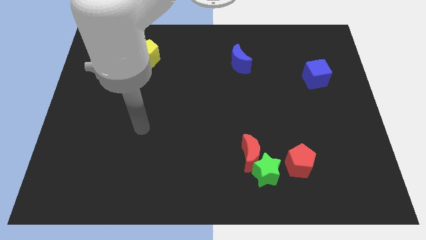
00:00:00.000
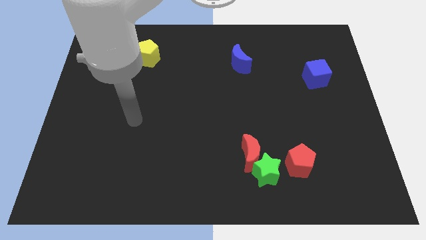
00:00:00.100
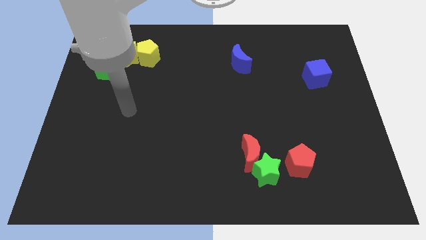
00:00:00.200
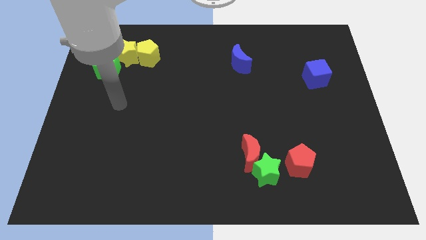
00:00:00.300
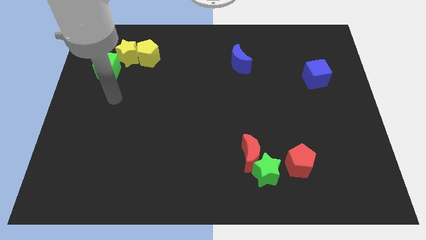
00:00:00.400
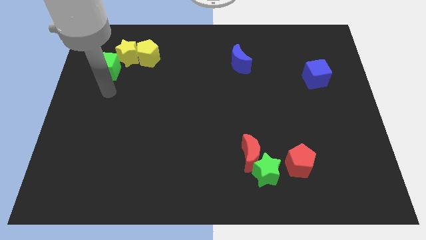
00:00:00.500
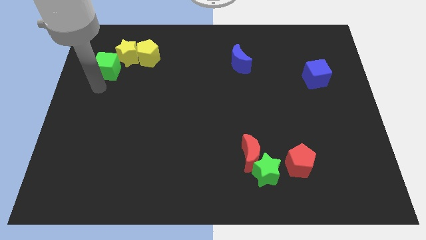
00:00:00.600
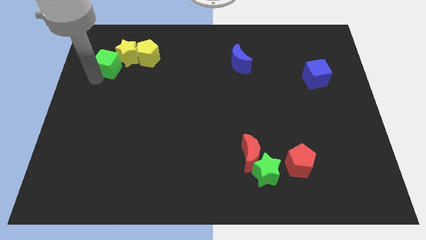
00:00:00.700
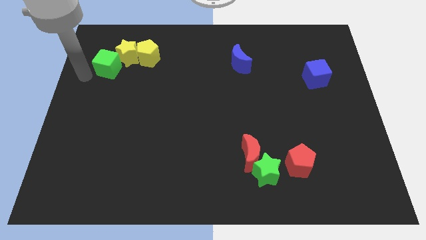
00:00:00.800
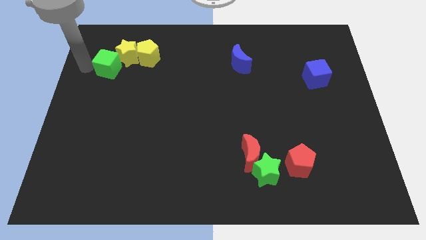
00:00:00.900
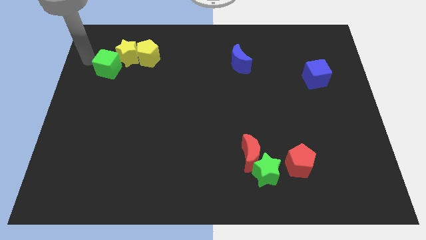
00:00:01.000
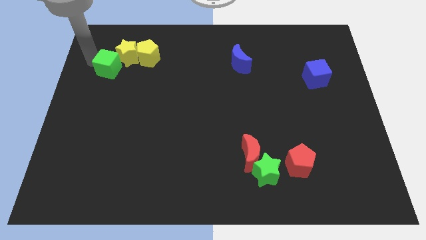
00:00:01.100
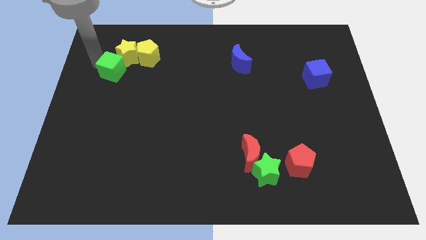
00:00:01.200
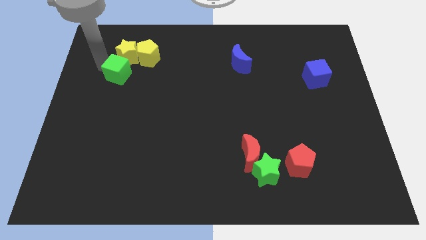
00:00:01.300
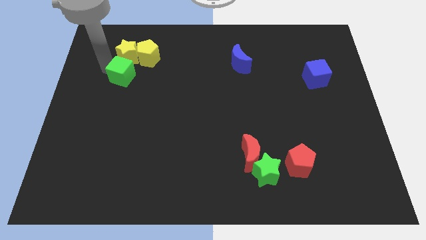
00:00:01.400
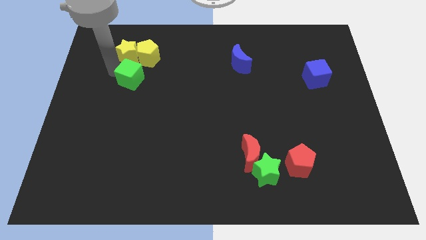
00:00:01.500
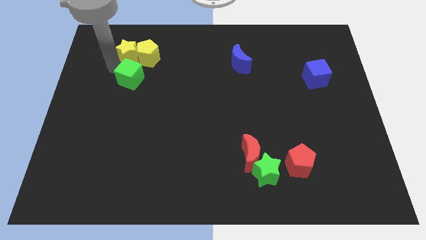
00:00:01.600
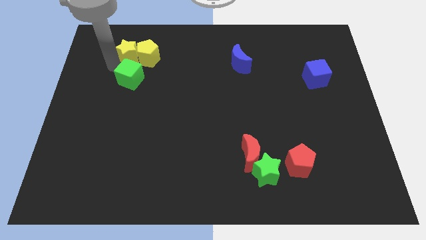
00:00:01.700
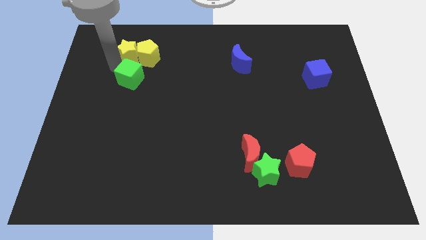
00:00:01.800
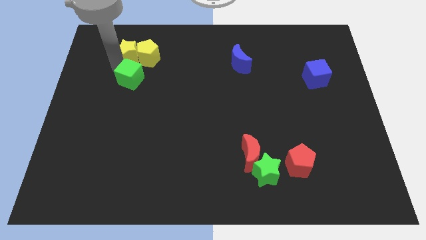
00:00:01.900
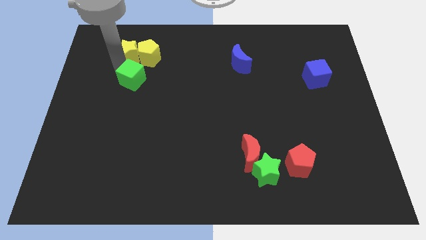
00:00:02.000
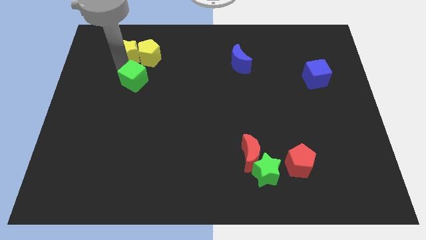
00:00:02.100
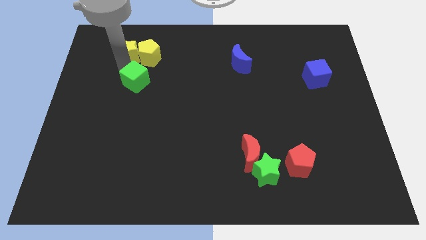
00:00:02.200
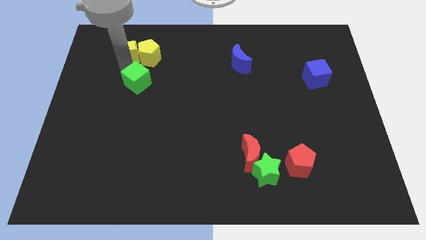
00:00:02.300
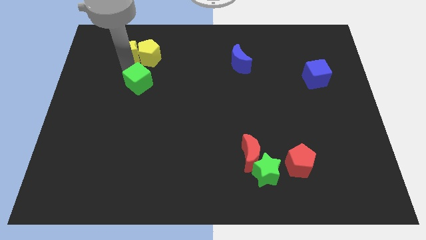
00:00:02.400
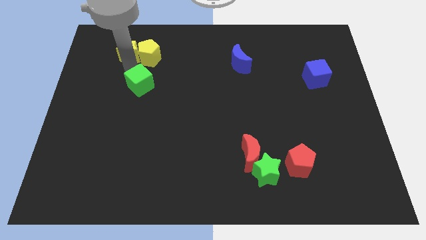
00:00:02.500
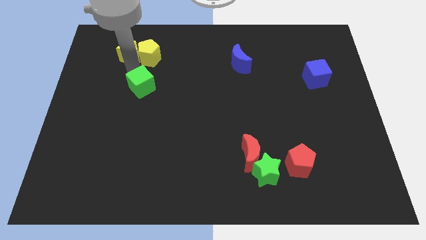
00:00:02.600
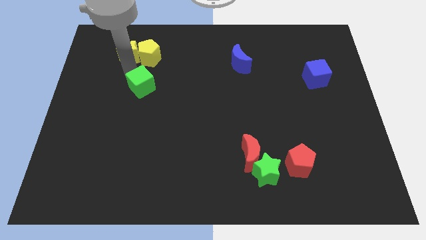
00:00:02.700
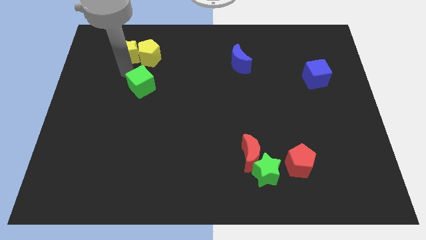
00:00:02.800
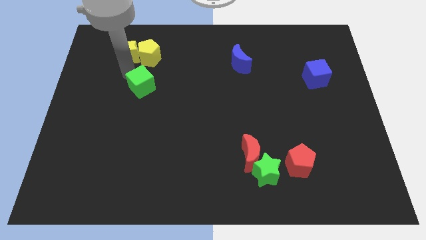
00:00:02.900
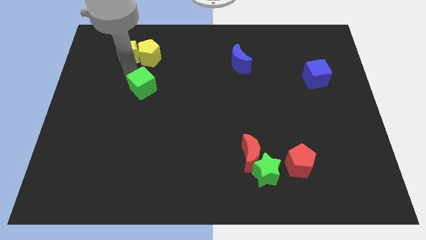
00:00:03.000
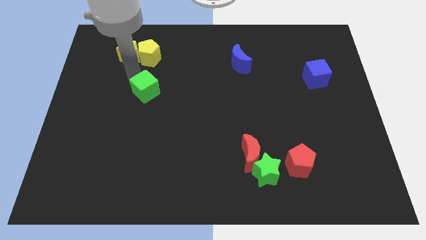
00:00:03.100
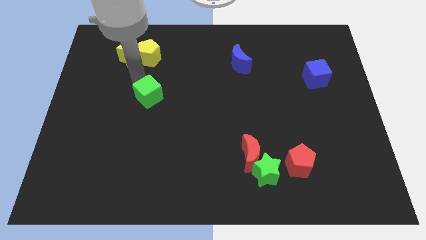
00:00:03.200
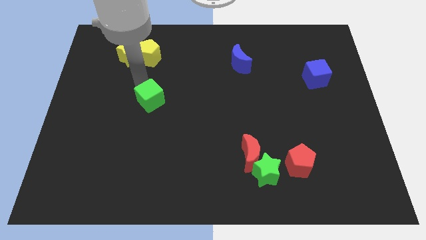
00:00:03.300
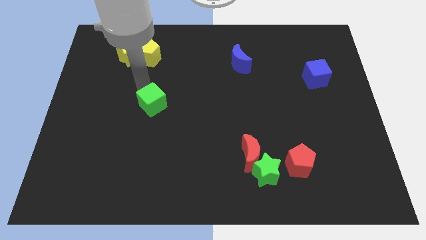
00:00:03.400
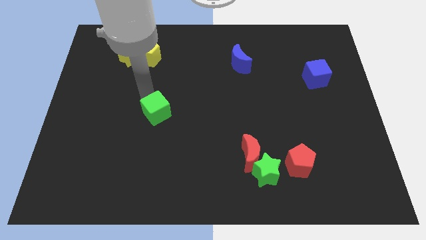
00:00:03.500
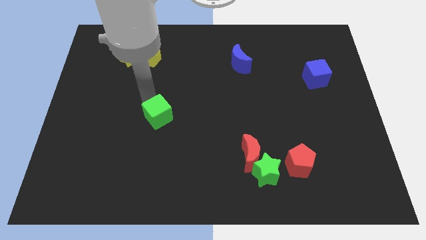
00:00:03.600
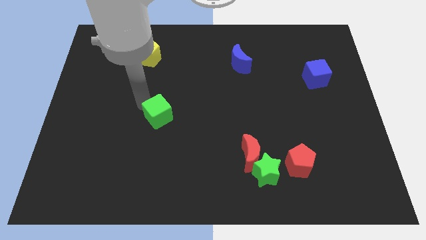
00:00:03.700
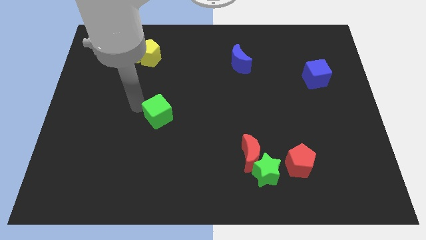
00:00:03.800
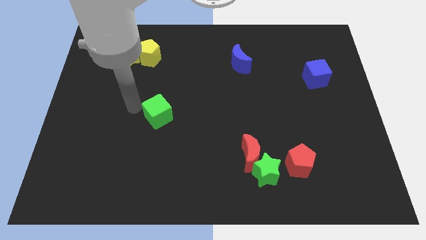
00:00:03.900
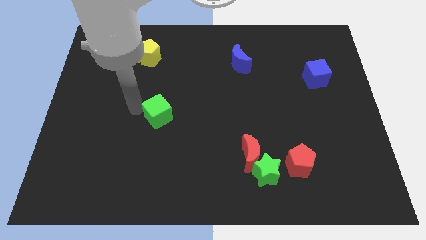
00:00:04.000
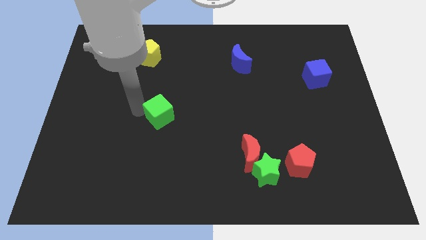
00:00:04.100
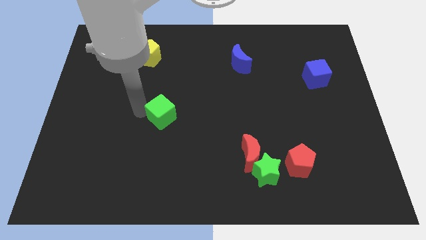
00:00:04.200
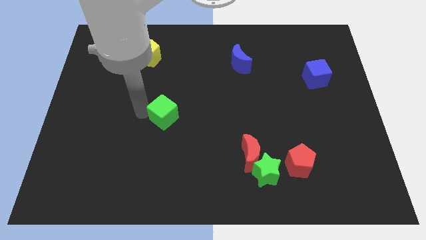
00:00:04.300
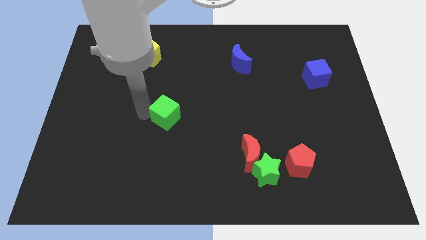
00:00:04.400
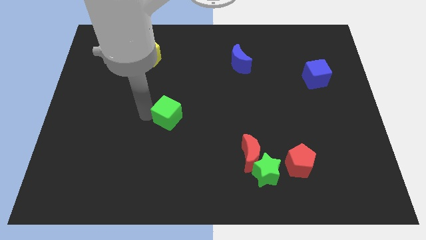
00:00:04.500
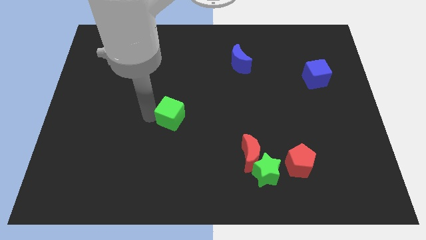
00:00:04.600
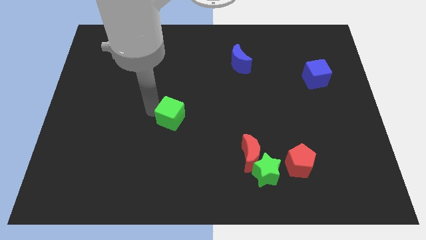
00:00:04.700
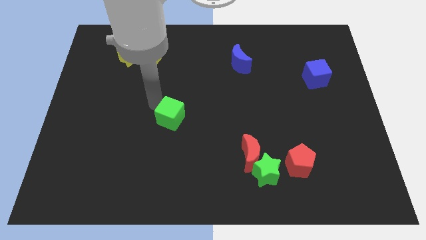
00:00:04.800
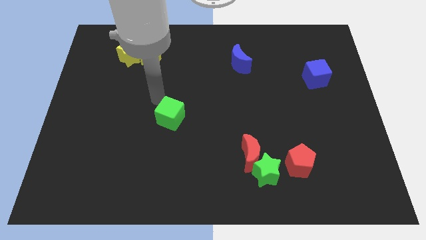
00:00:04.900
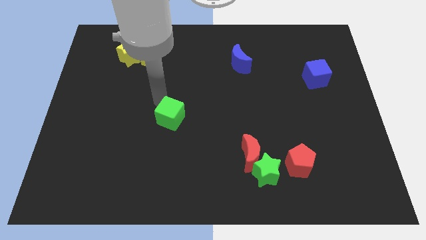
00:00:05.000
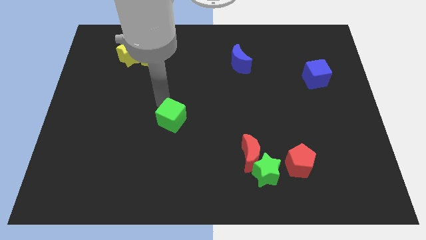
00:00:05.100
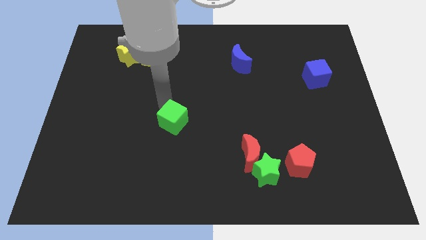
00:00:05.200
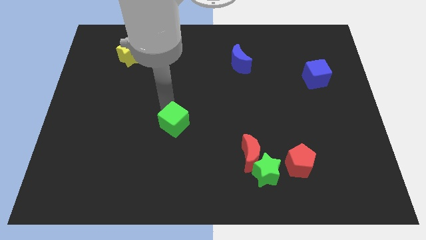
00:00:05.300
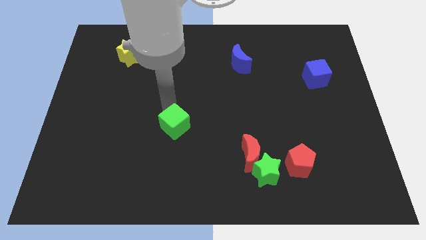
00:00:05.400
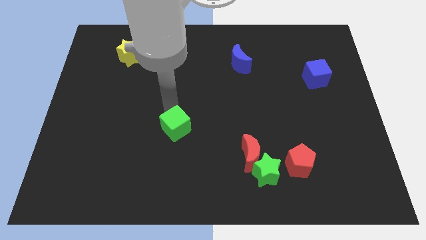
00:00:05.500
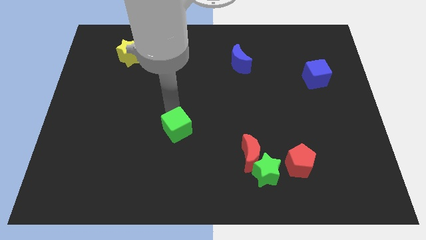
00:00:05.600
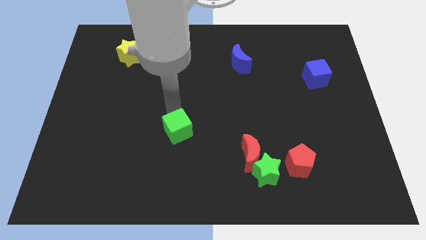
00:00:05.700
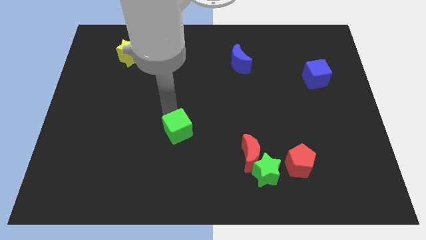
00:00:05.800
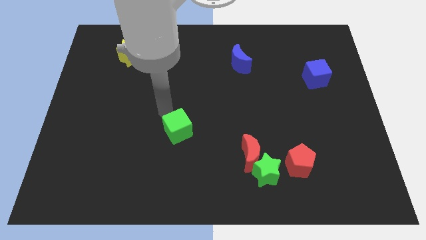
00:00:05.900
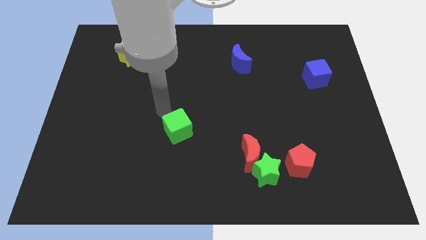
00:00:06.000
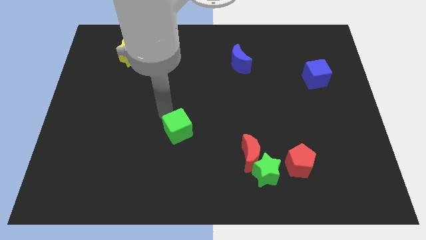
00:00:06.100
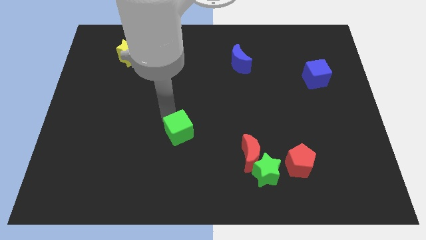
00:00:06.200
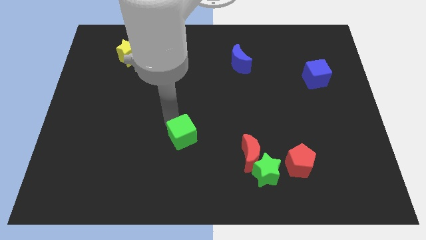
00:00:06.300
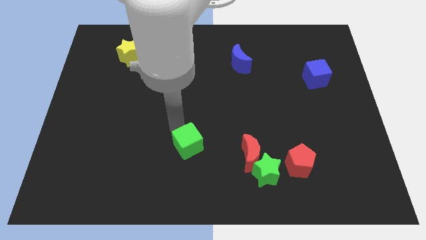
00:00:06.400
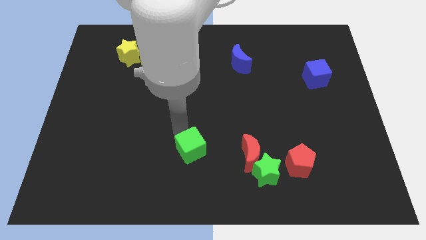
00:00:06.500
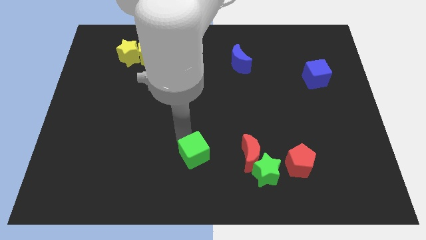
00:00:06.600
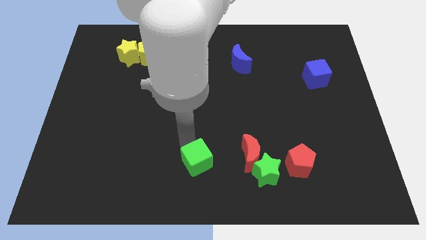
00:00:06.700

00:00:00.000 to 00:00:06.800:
move the green cube to the left side of the green star

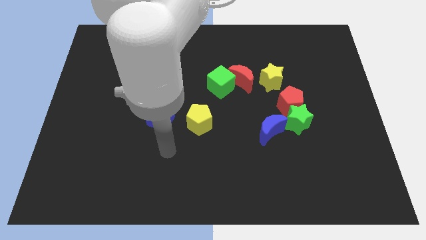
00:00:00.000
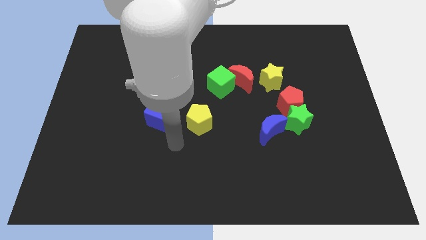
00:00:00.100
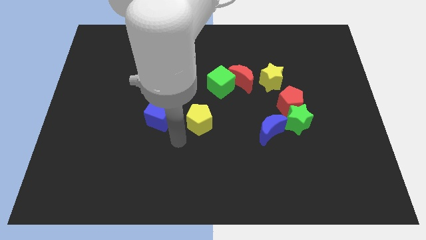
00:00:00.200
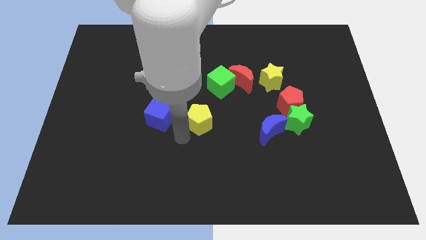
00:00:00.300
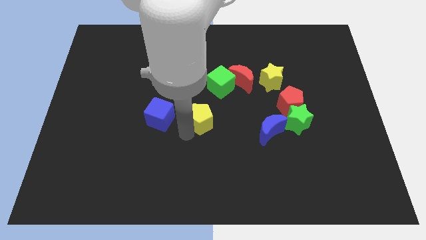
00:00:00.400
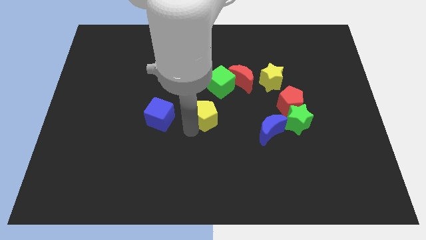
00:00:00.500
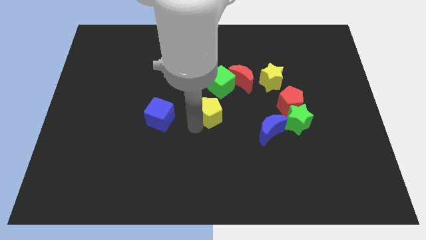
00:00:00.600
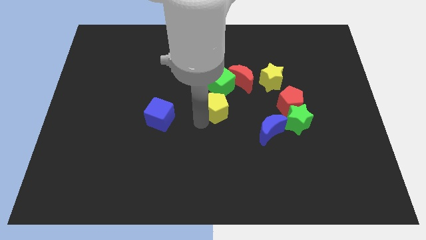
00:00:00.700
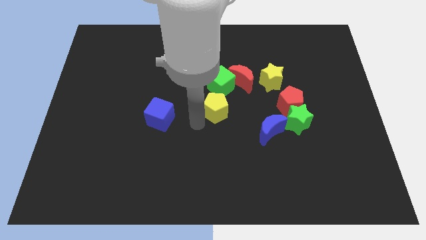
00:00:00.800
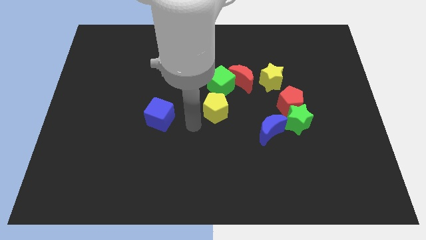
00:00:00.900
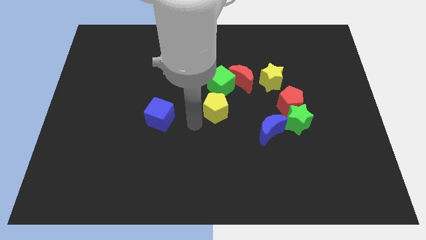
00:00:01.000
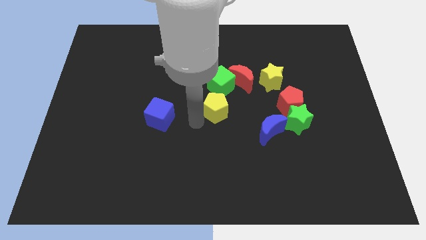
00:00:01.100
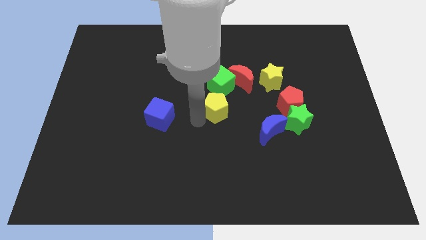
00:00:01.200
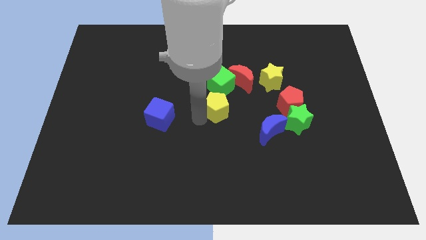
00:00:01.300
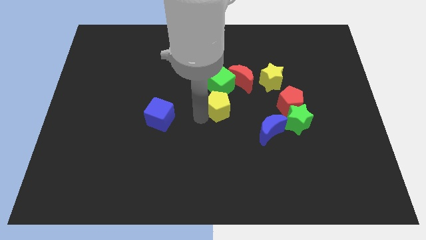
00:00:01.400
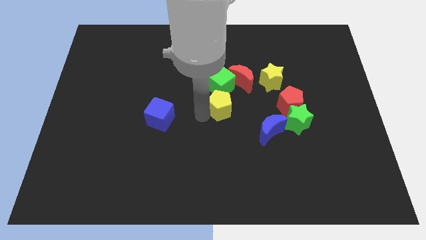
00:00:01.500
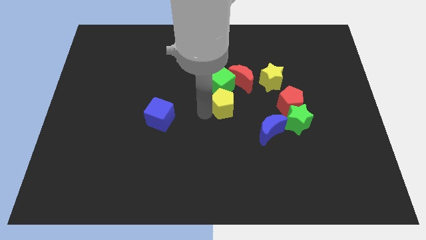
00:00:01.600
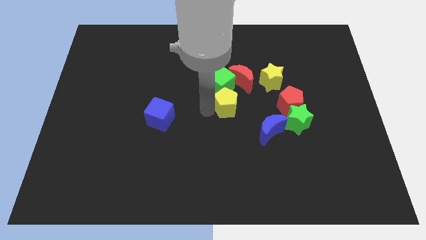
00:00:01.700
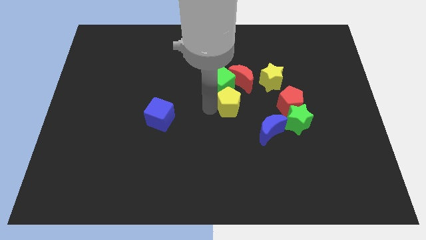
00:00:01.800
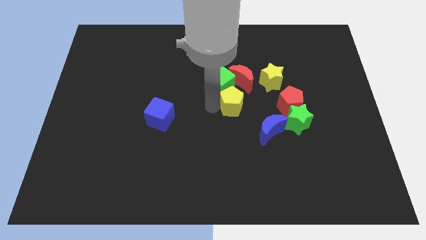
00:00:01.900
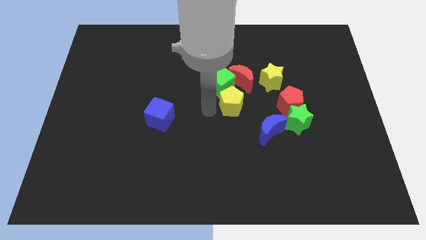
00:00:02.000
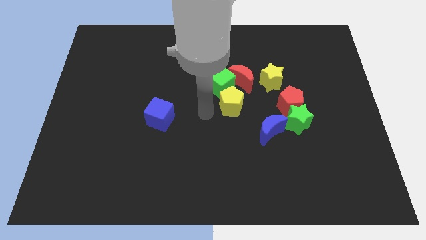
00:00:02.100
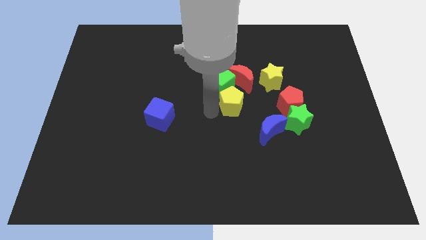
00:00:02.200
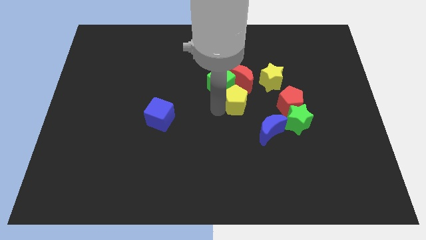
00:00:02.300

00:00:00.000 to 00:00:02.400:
slide the yellow pentagon diagonally down and to the left of the yellow star
